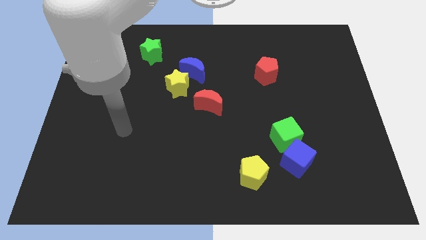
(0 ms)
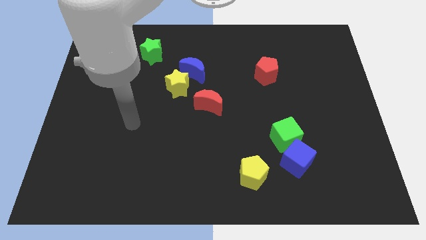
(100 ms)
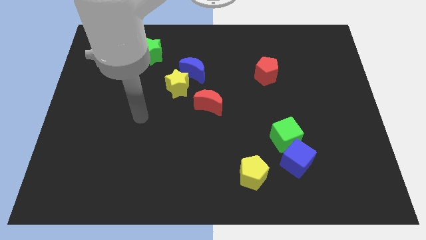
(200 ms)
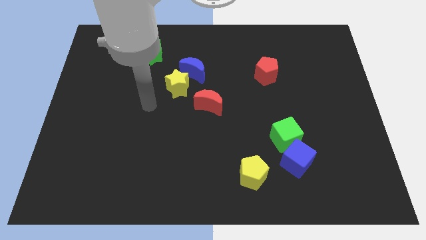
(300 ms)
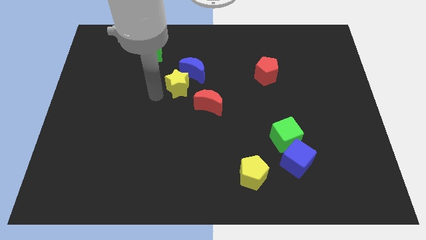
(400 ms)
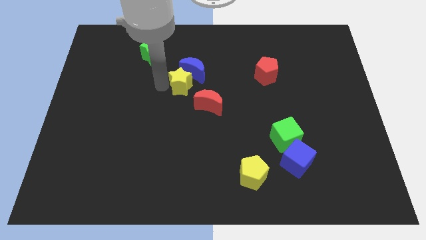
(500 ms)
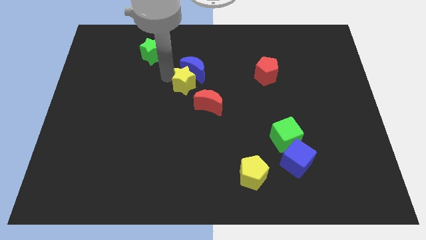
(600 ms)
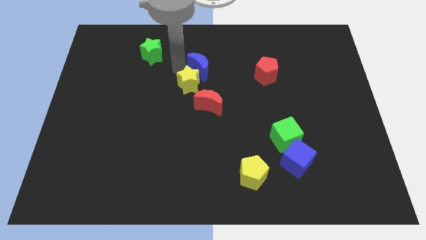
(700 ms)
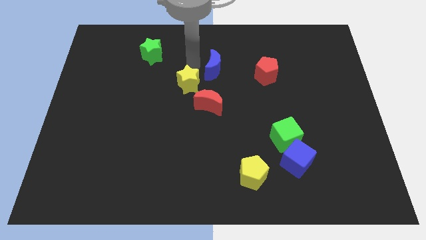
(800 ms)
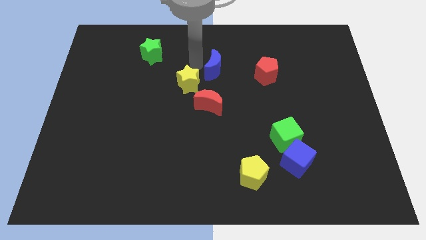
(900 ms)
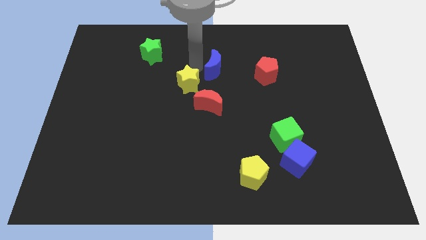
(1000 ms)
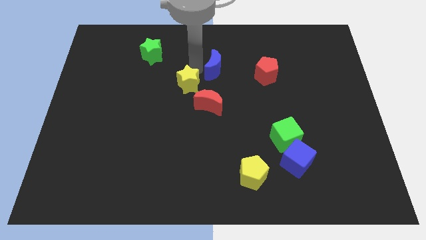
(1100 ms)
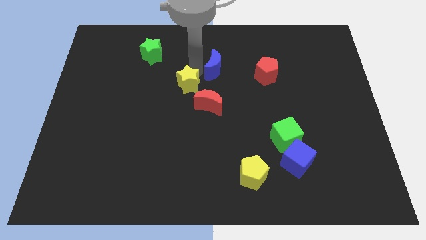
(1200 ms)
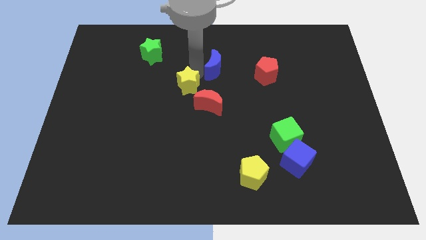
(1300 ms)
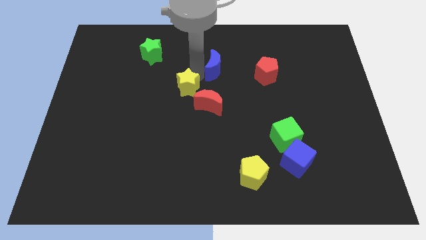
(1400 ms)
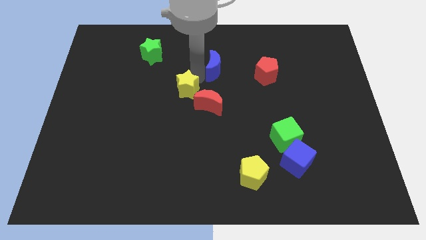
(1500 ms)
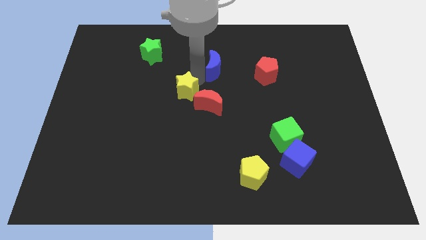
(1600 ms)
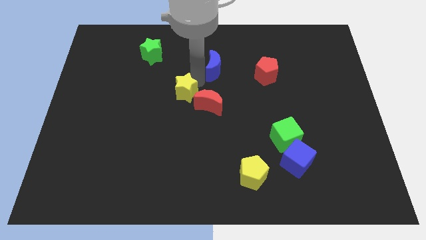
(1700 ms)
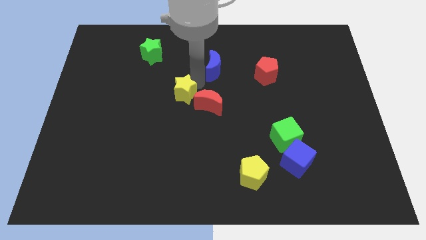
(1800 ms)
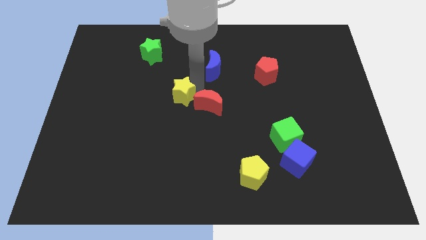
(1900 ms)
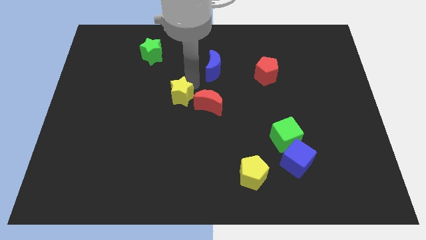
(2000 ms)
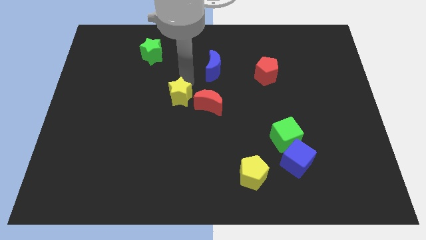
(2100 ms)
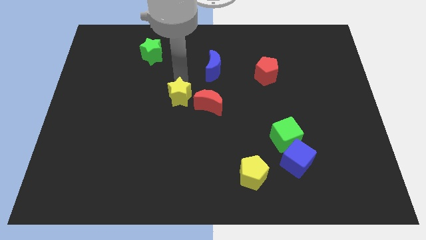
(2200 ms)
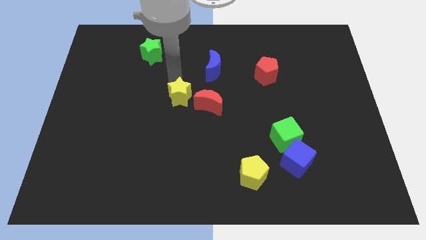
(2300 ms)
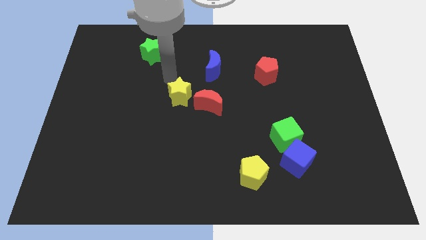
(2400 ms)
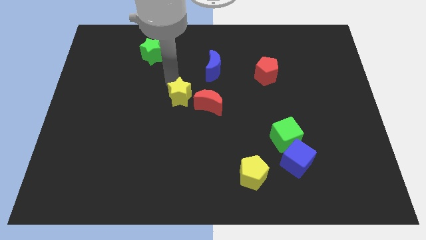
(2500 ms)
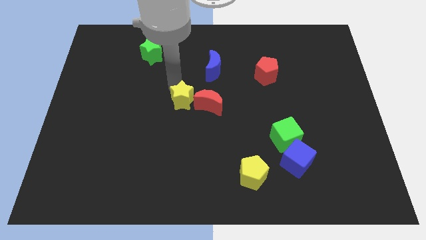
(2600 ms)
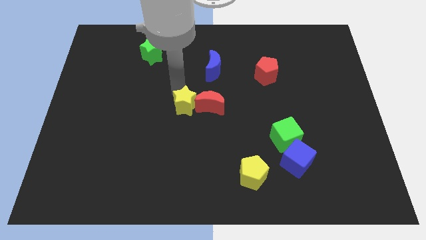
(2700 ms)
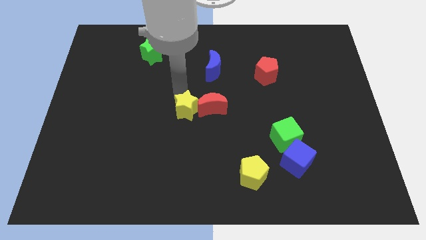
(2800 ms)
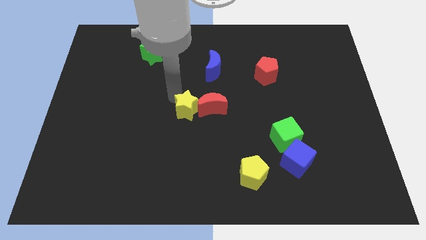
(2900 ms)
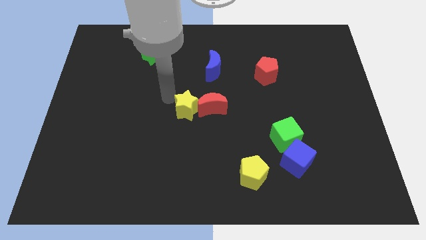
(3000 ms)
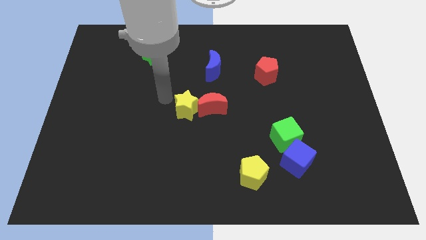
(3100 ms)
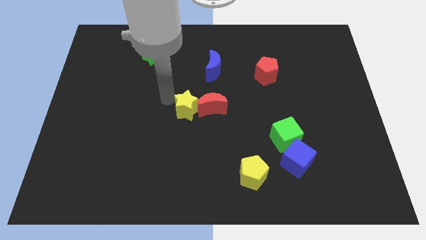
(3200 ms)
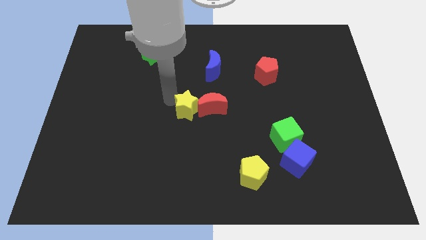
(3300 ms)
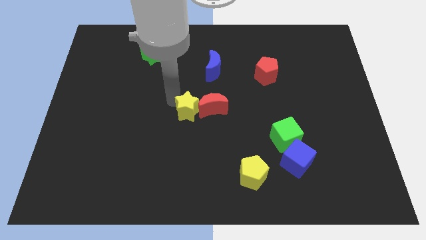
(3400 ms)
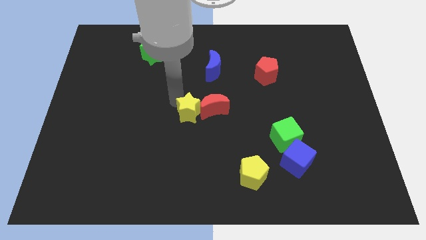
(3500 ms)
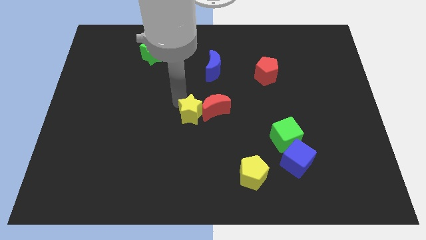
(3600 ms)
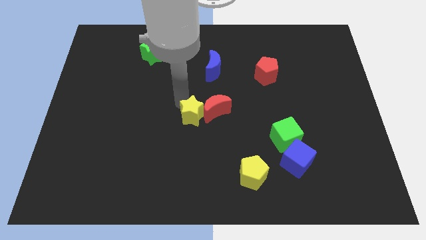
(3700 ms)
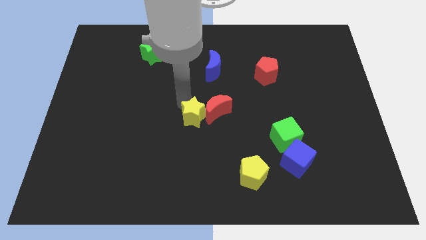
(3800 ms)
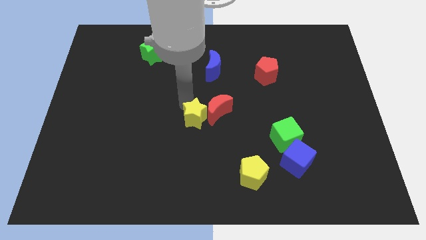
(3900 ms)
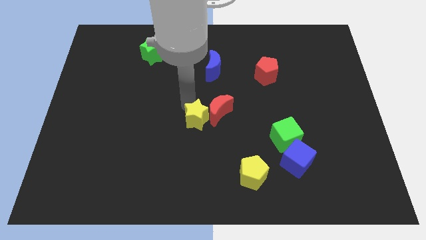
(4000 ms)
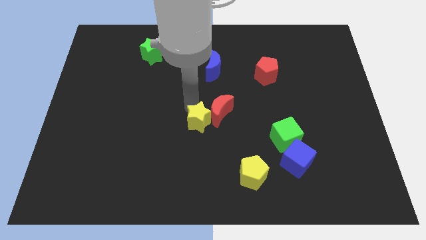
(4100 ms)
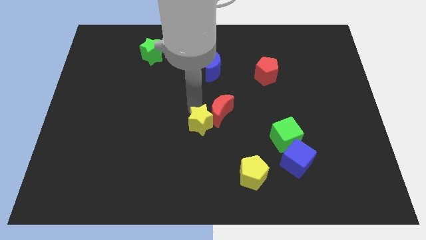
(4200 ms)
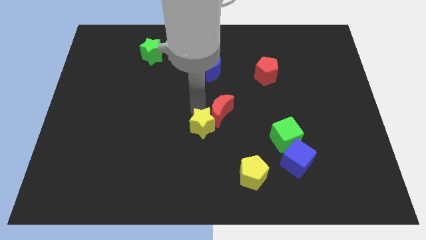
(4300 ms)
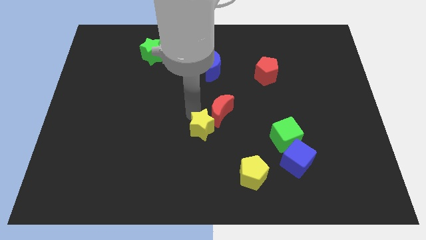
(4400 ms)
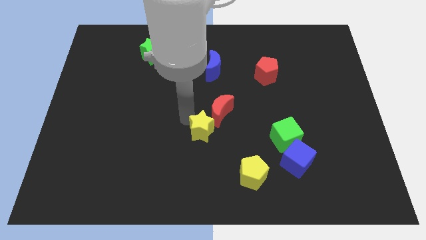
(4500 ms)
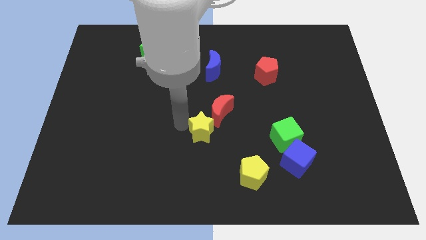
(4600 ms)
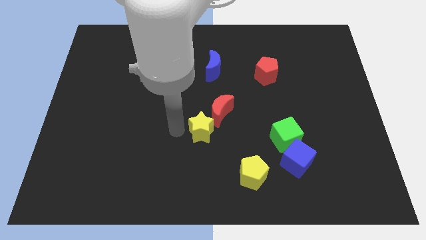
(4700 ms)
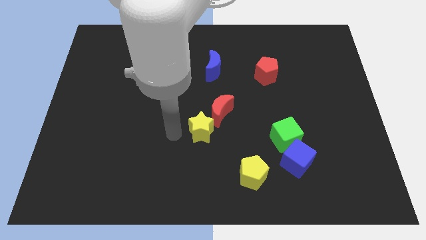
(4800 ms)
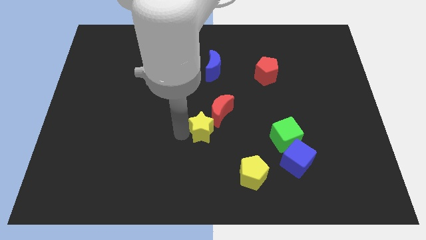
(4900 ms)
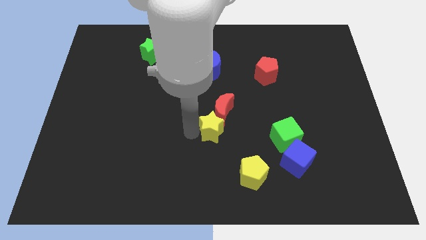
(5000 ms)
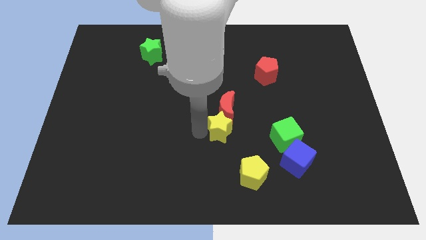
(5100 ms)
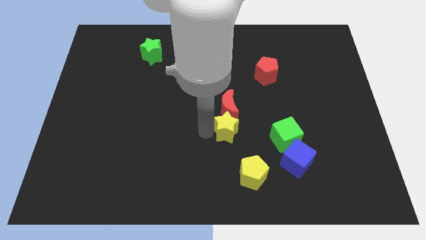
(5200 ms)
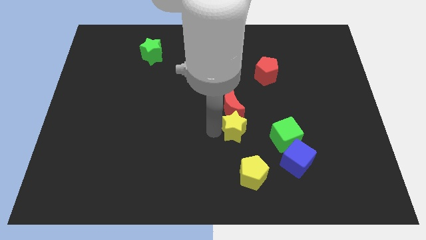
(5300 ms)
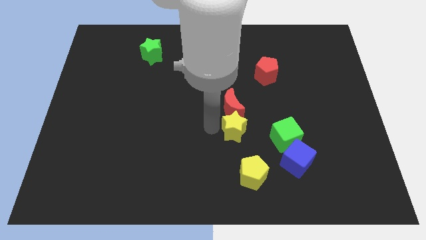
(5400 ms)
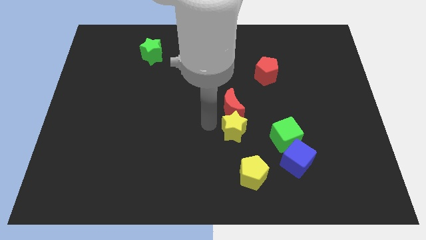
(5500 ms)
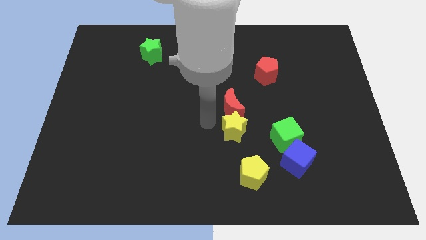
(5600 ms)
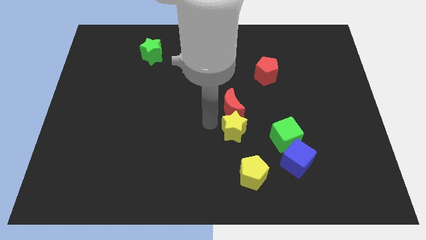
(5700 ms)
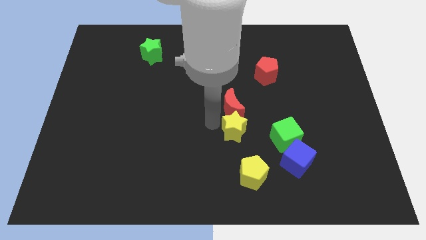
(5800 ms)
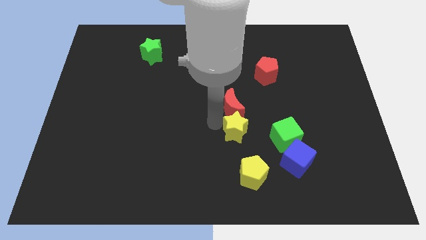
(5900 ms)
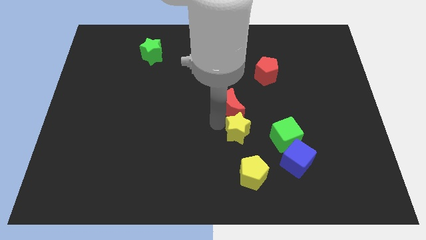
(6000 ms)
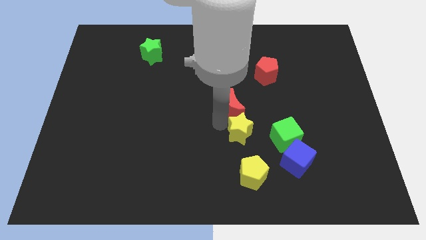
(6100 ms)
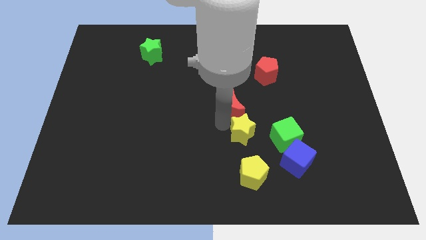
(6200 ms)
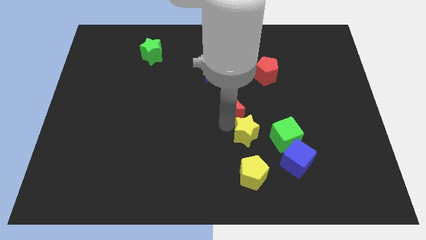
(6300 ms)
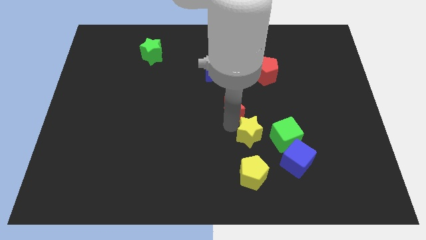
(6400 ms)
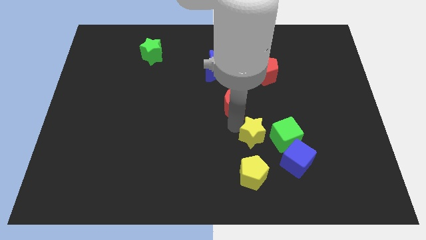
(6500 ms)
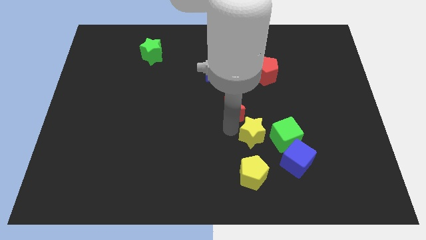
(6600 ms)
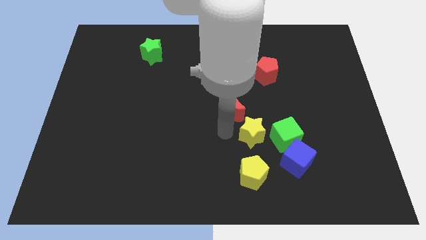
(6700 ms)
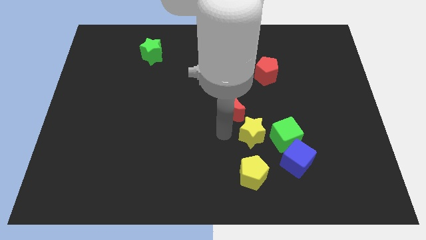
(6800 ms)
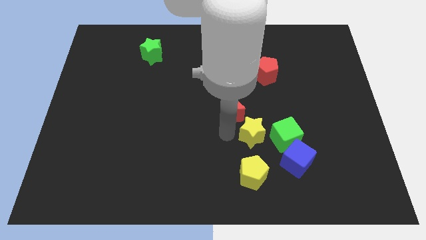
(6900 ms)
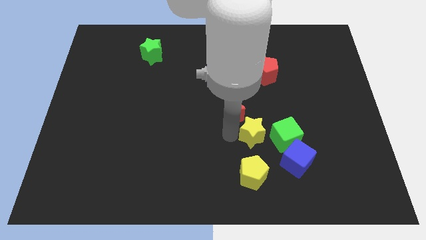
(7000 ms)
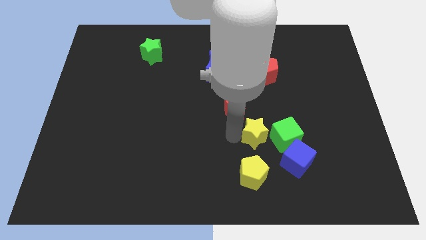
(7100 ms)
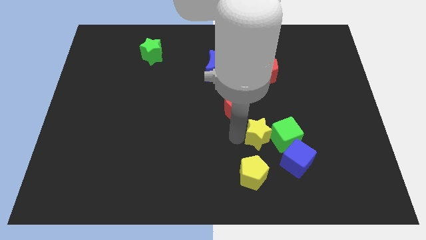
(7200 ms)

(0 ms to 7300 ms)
slide the yellow star close to the green cube

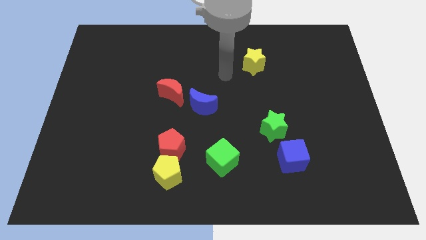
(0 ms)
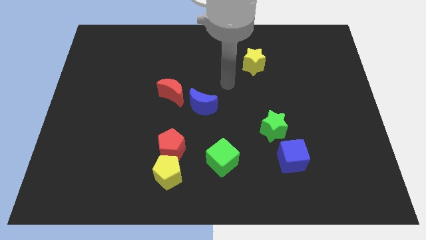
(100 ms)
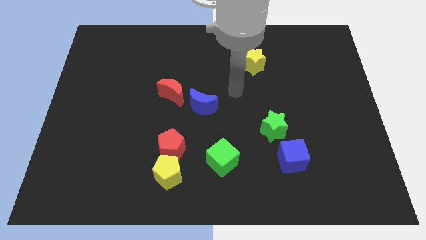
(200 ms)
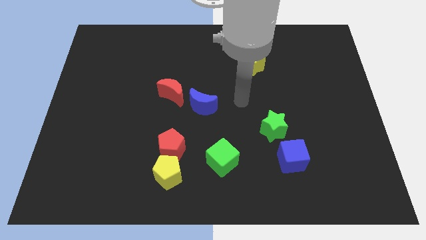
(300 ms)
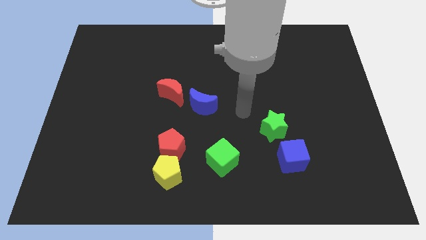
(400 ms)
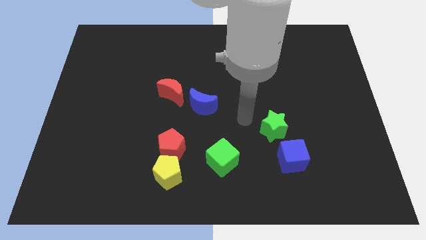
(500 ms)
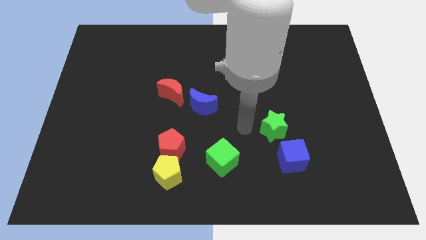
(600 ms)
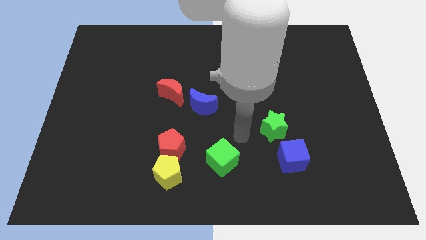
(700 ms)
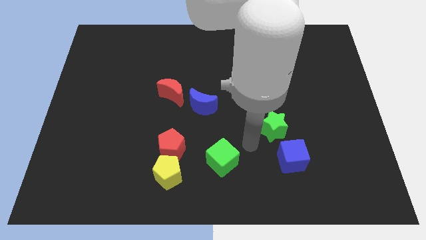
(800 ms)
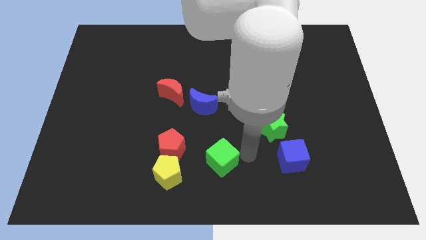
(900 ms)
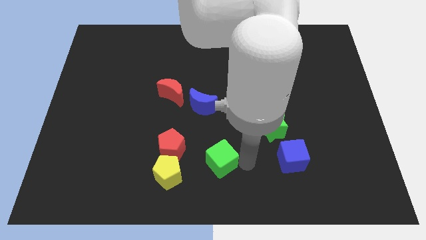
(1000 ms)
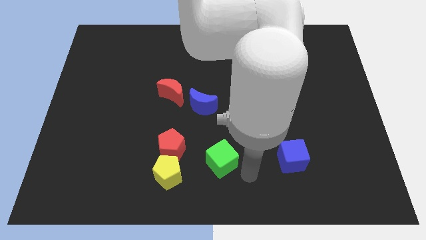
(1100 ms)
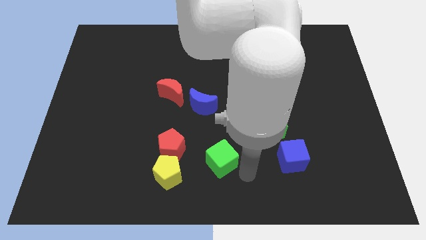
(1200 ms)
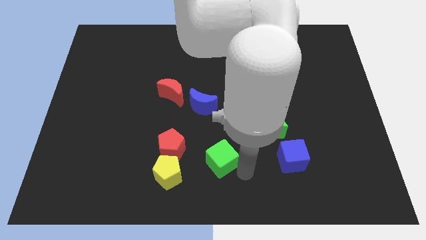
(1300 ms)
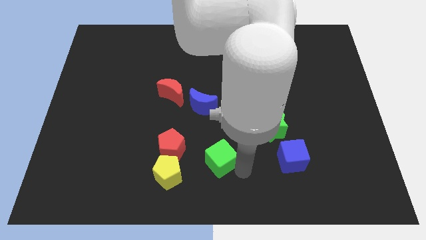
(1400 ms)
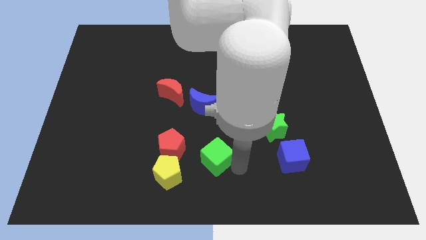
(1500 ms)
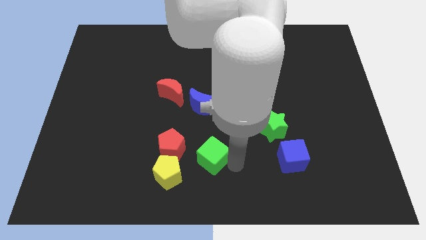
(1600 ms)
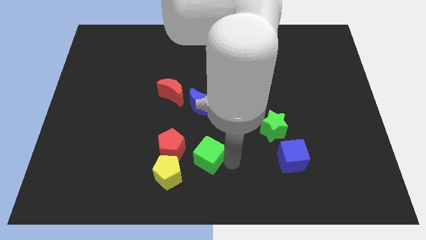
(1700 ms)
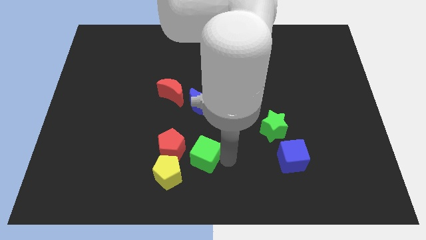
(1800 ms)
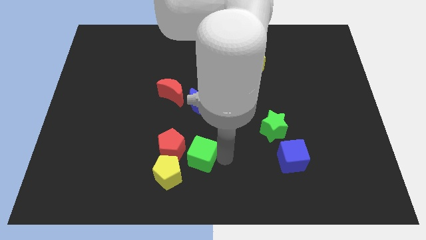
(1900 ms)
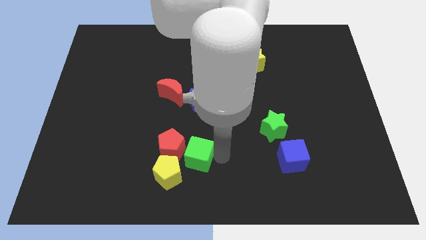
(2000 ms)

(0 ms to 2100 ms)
put the green cube towards the red pentagon
